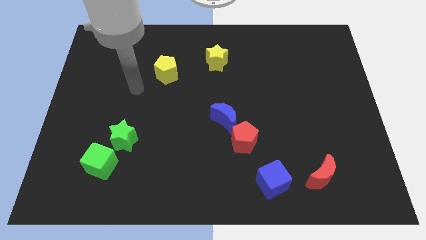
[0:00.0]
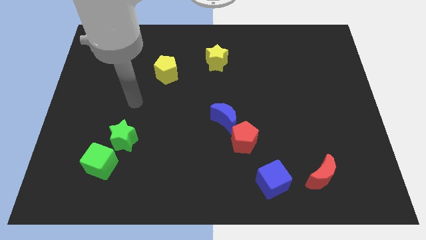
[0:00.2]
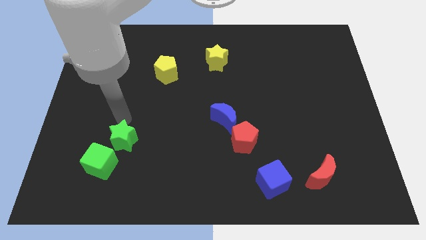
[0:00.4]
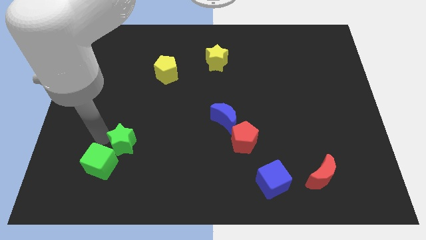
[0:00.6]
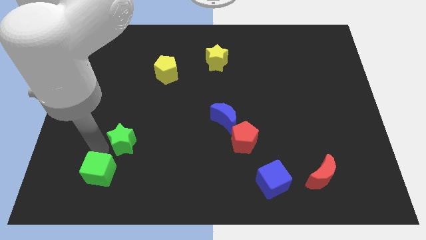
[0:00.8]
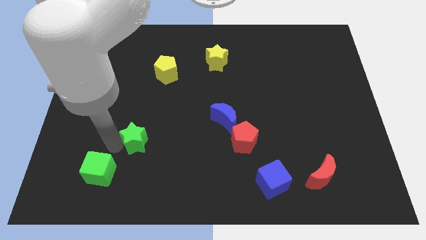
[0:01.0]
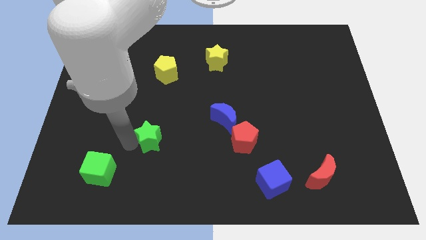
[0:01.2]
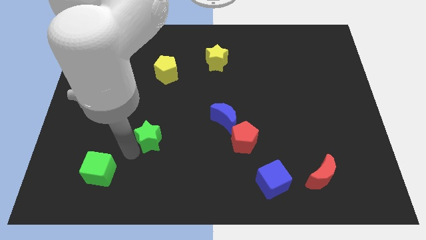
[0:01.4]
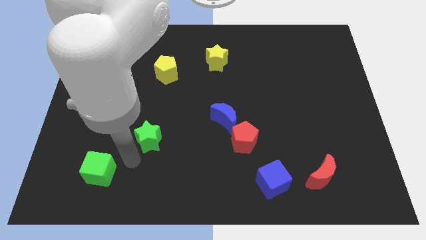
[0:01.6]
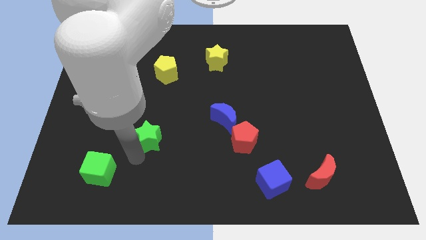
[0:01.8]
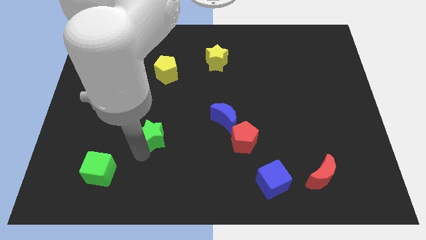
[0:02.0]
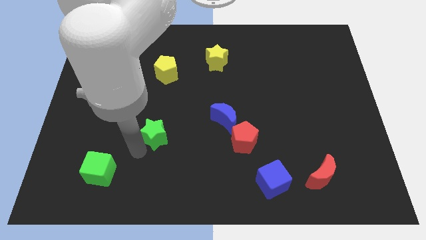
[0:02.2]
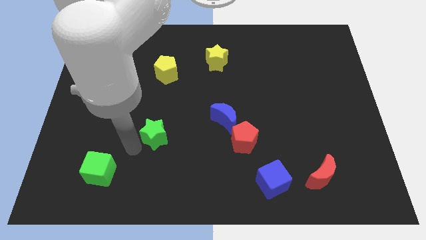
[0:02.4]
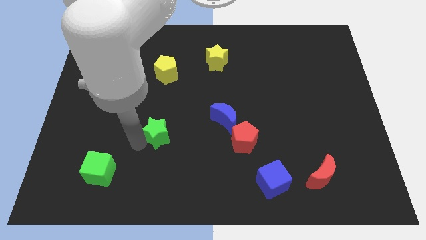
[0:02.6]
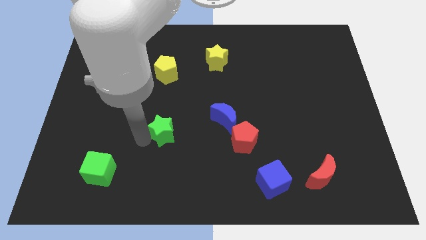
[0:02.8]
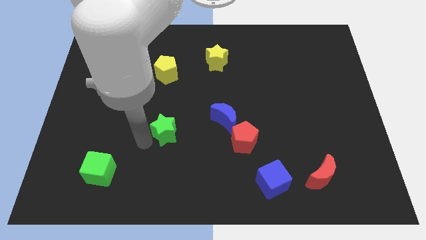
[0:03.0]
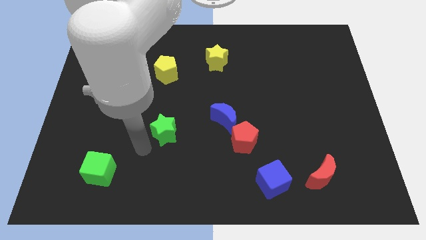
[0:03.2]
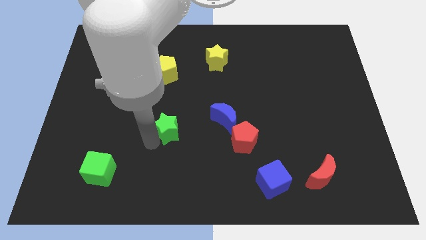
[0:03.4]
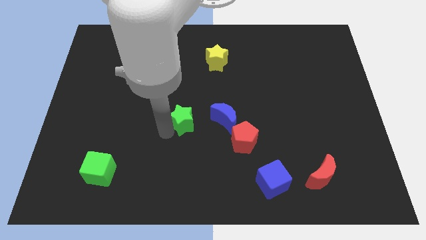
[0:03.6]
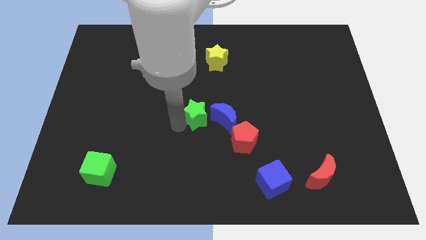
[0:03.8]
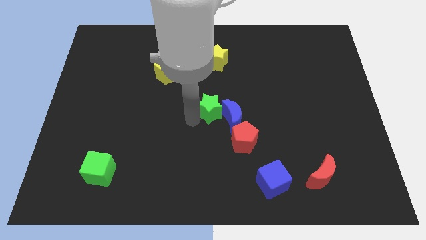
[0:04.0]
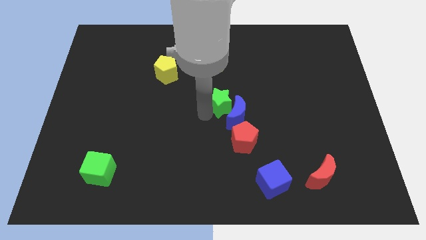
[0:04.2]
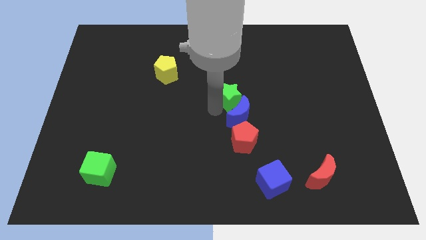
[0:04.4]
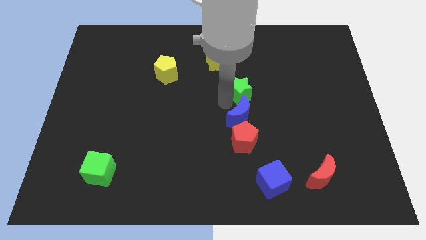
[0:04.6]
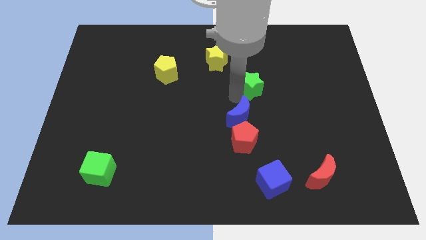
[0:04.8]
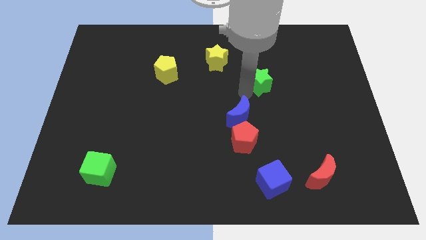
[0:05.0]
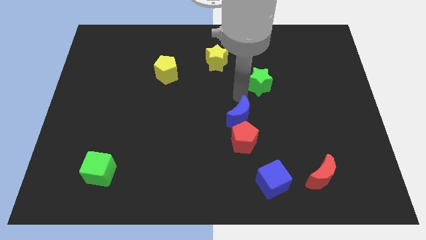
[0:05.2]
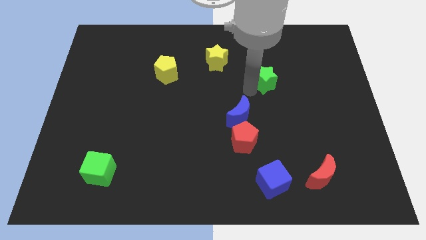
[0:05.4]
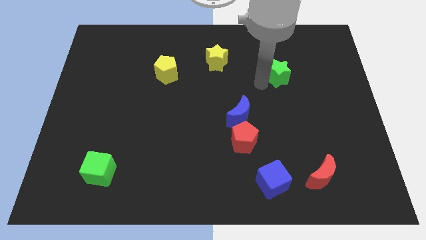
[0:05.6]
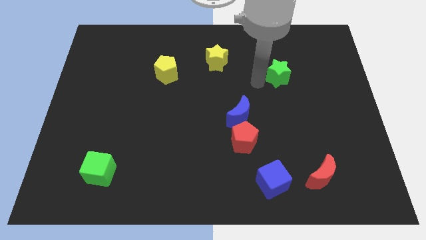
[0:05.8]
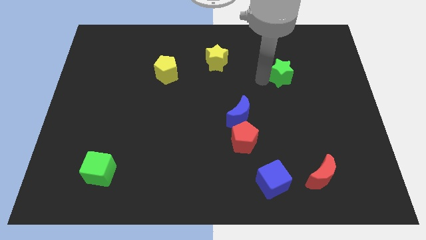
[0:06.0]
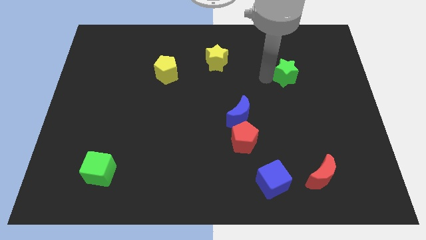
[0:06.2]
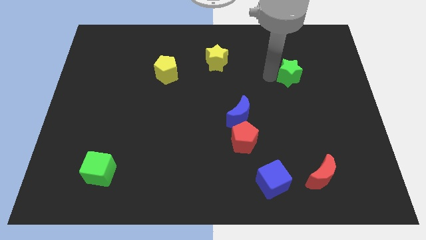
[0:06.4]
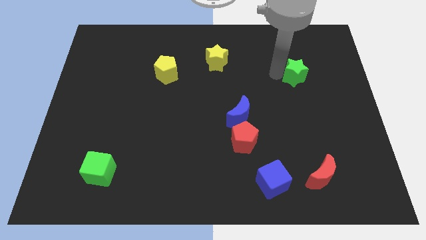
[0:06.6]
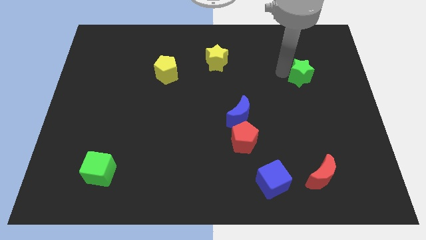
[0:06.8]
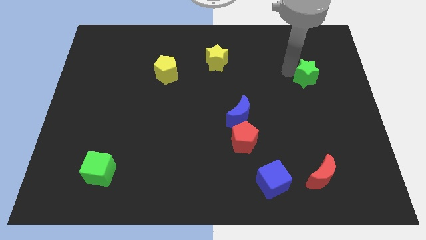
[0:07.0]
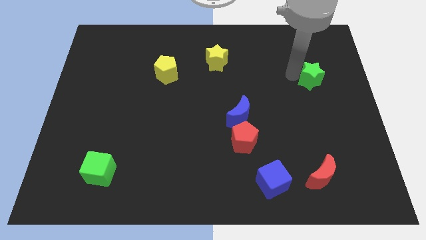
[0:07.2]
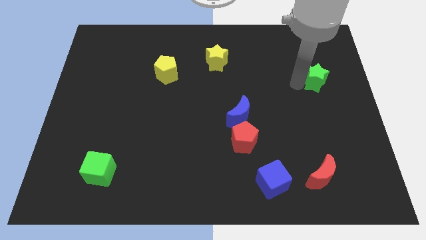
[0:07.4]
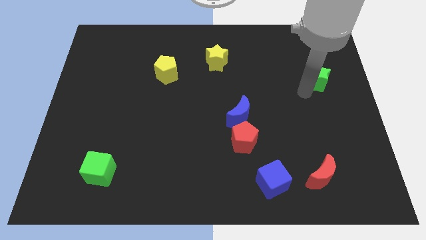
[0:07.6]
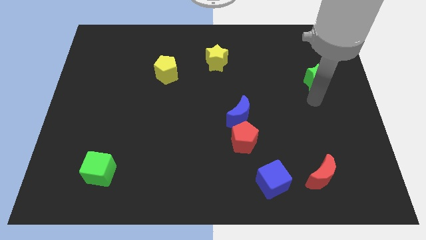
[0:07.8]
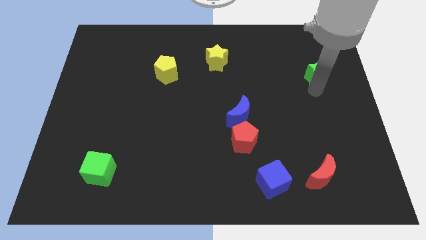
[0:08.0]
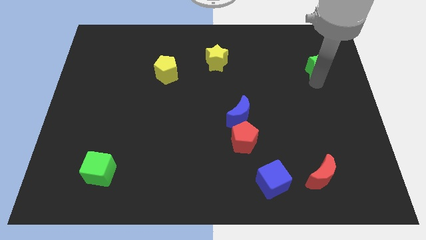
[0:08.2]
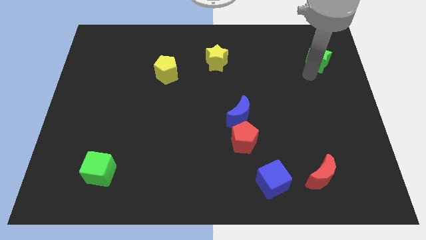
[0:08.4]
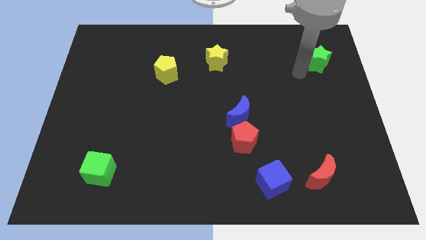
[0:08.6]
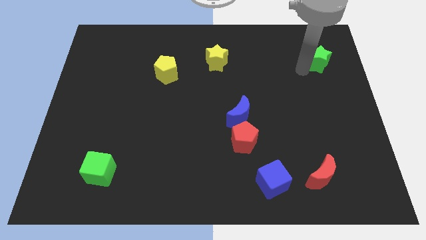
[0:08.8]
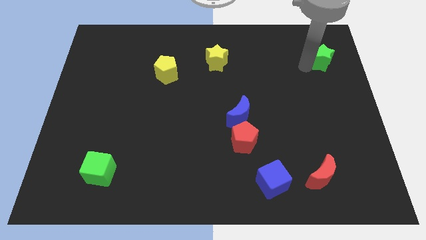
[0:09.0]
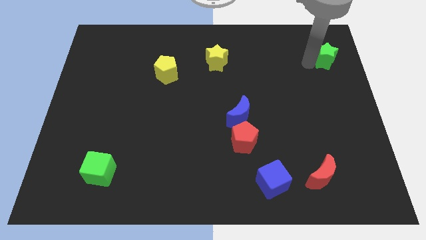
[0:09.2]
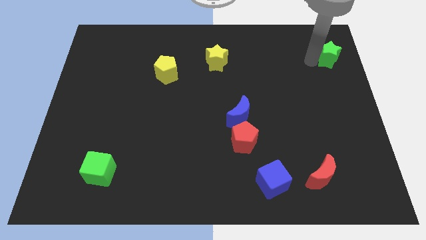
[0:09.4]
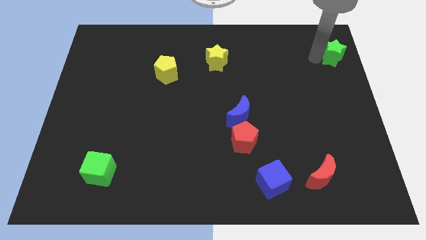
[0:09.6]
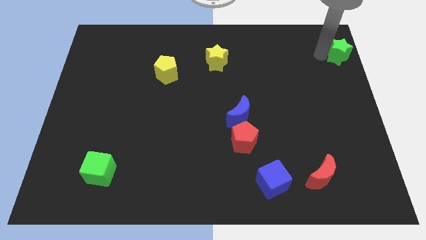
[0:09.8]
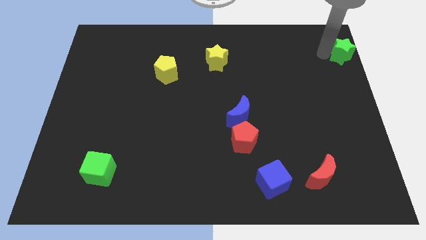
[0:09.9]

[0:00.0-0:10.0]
push the green star to the top right corner
